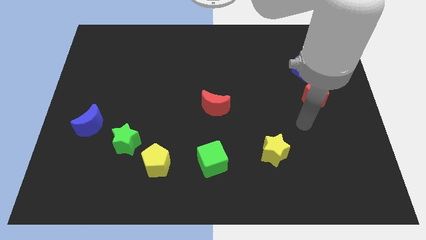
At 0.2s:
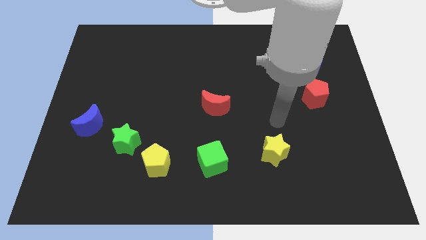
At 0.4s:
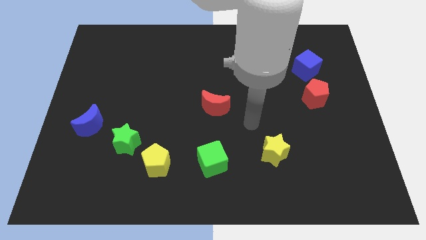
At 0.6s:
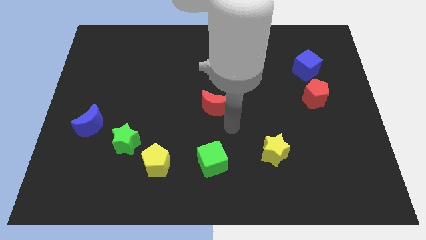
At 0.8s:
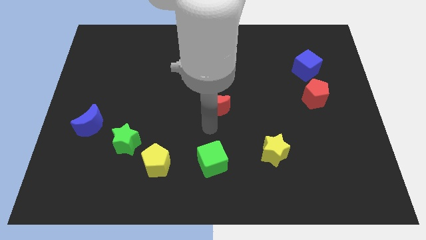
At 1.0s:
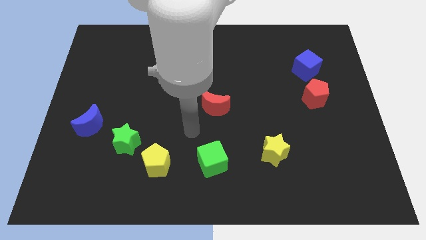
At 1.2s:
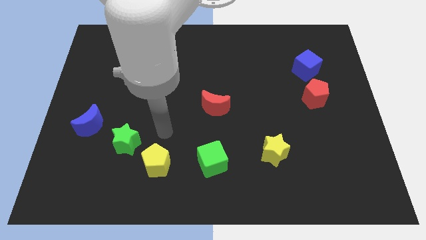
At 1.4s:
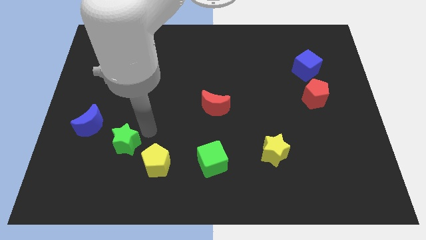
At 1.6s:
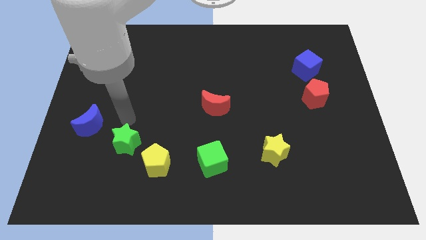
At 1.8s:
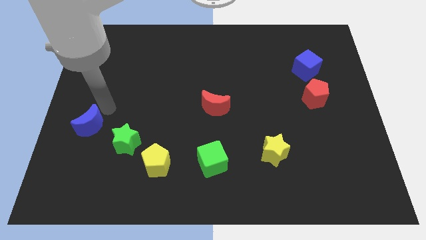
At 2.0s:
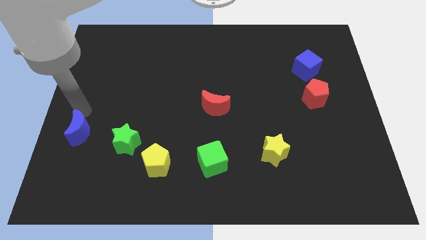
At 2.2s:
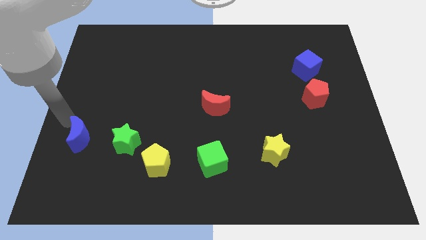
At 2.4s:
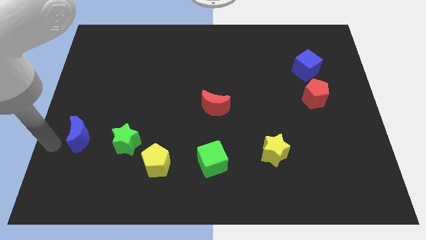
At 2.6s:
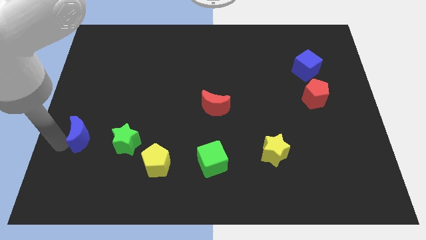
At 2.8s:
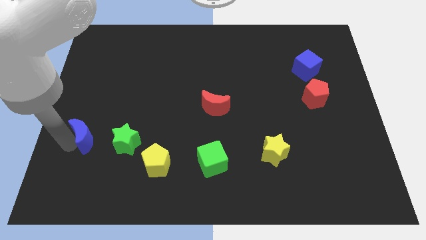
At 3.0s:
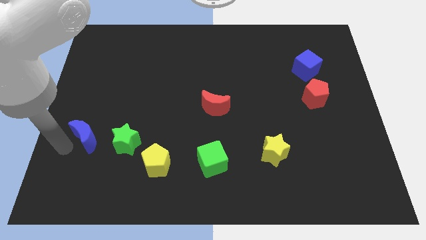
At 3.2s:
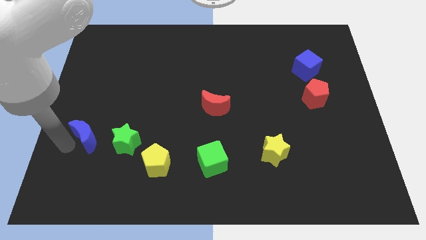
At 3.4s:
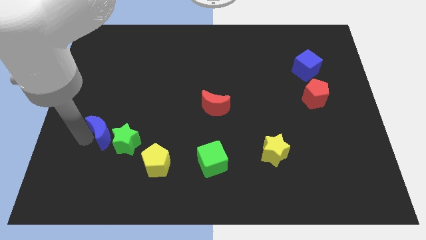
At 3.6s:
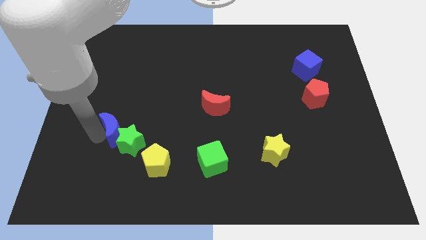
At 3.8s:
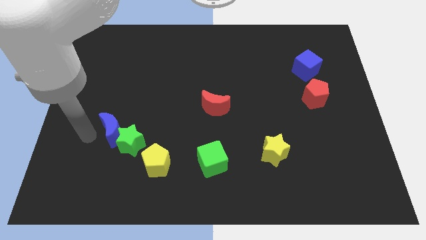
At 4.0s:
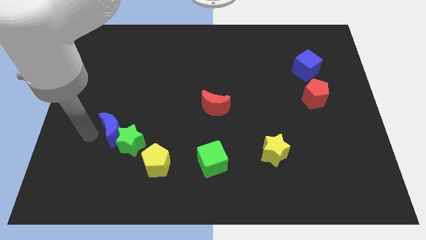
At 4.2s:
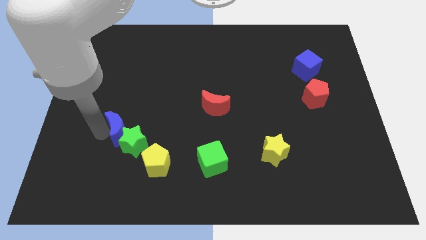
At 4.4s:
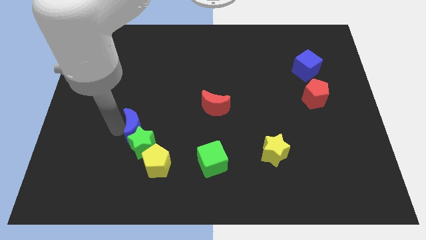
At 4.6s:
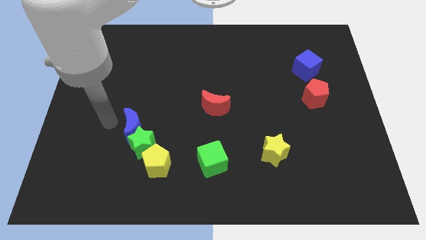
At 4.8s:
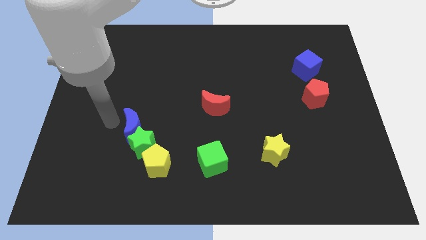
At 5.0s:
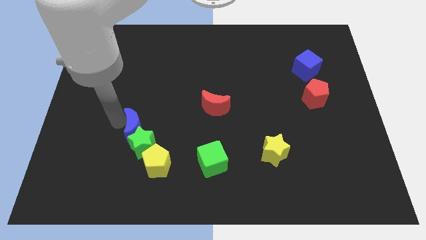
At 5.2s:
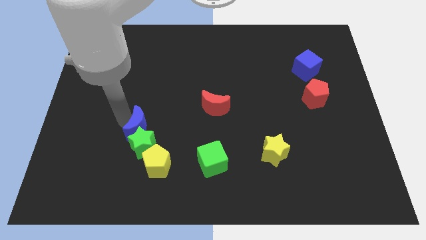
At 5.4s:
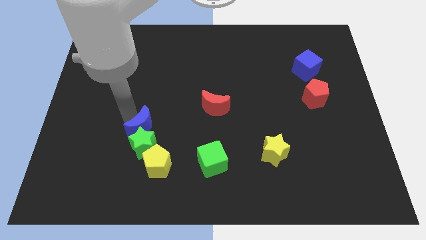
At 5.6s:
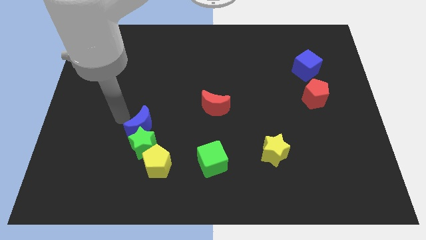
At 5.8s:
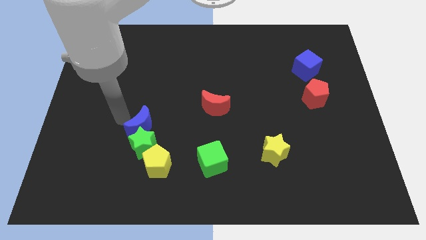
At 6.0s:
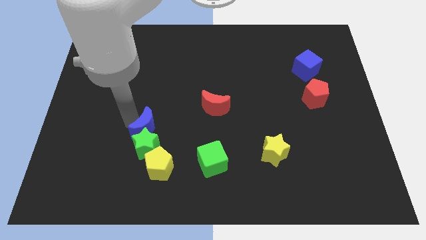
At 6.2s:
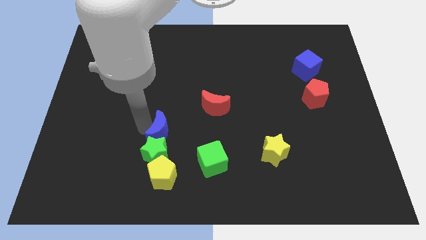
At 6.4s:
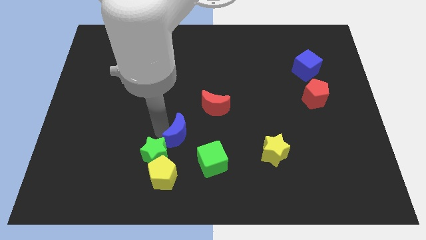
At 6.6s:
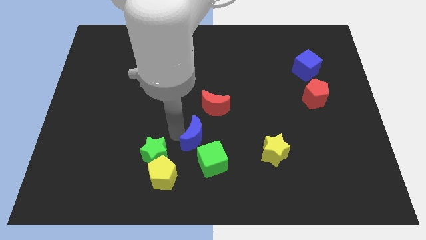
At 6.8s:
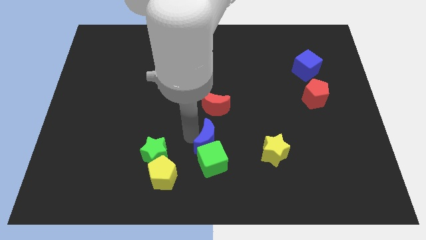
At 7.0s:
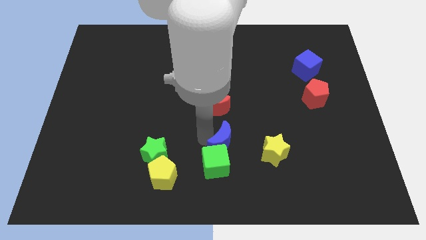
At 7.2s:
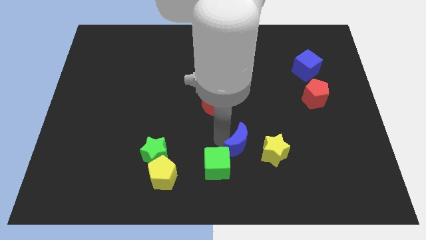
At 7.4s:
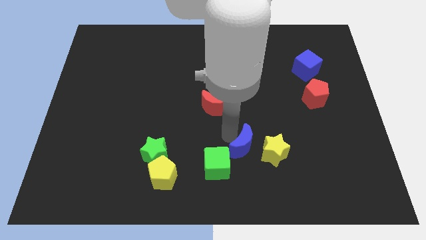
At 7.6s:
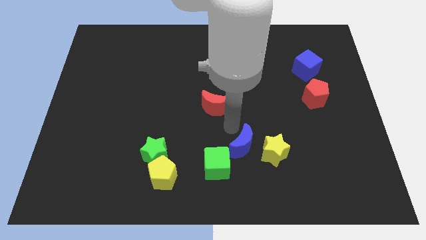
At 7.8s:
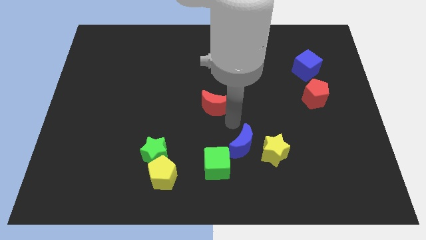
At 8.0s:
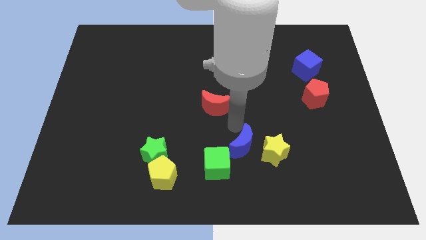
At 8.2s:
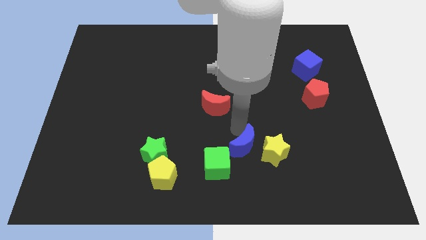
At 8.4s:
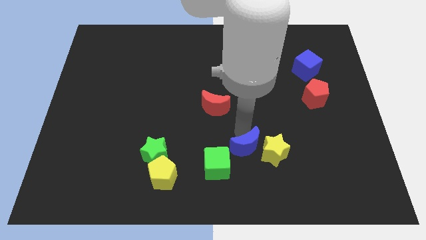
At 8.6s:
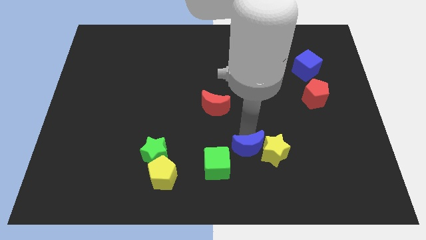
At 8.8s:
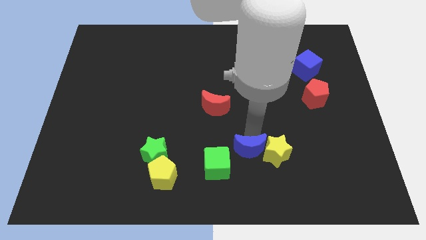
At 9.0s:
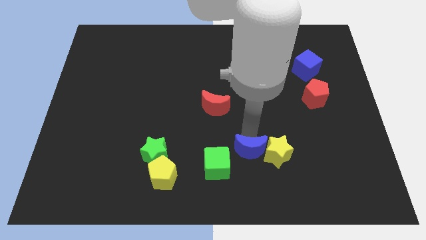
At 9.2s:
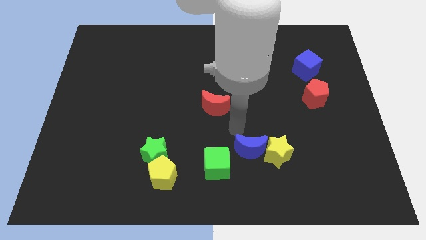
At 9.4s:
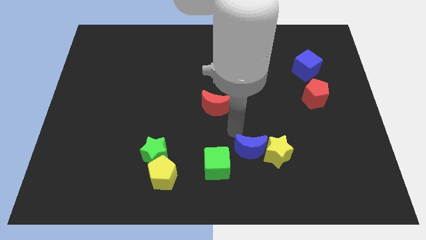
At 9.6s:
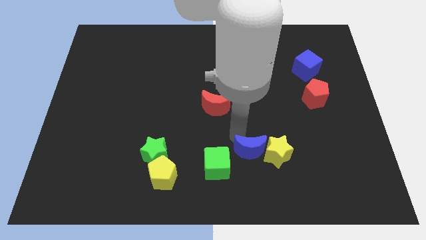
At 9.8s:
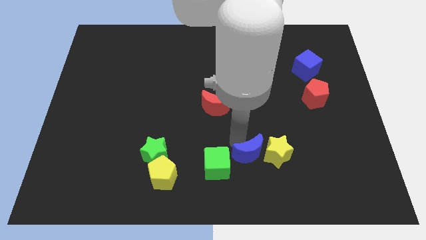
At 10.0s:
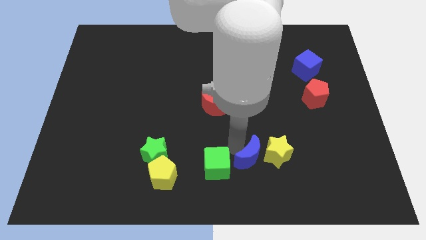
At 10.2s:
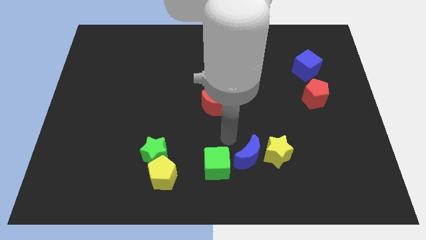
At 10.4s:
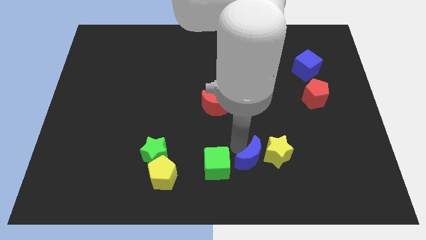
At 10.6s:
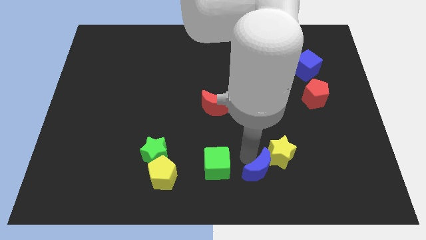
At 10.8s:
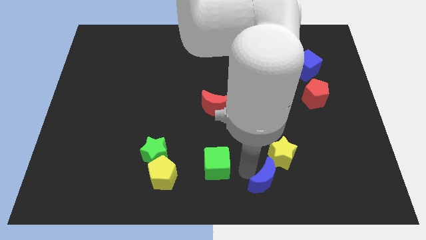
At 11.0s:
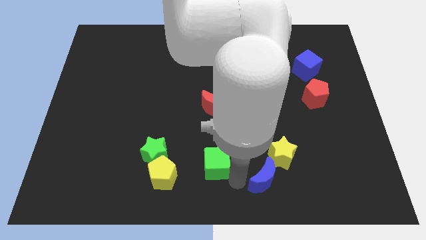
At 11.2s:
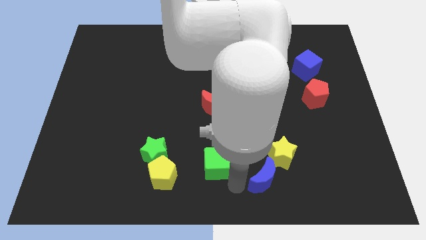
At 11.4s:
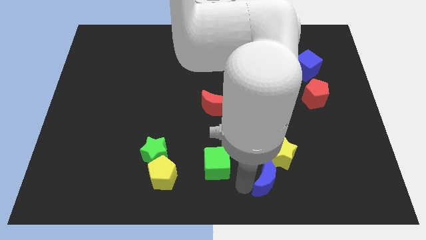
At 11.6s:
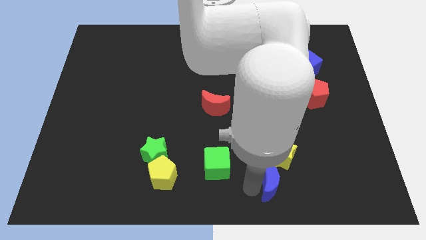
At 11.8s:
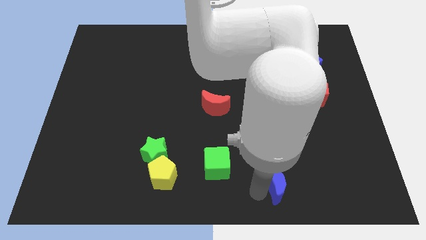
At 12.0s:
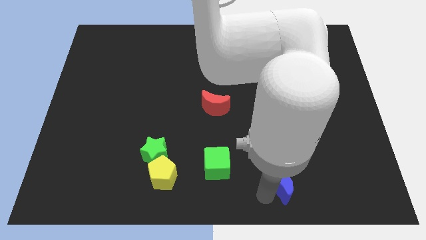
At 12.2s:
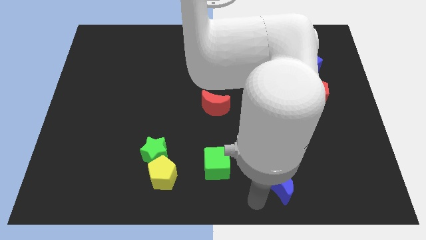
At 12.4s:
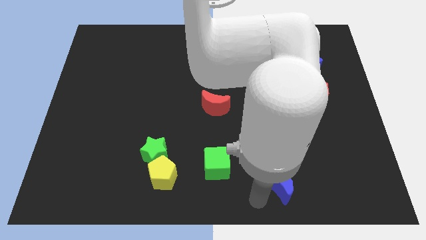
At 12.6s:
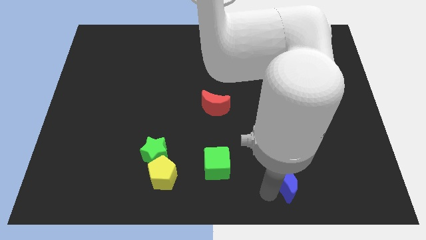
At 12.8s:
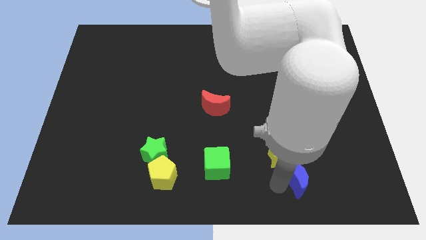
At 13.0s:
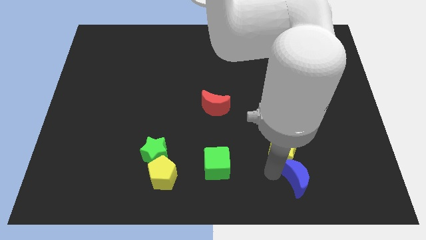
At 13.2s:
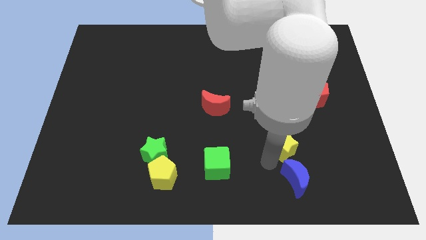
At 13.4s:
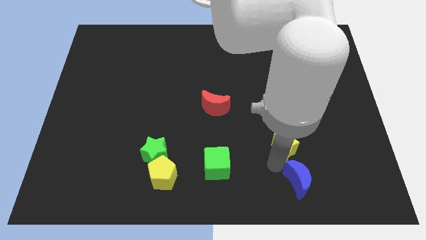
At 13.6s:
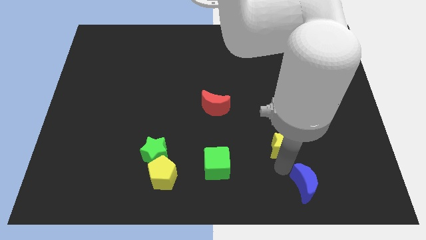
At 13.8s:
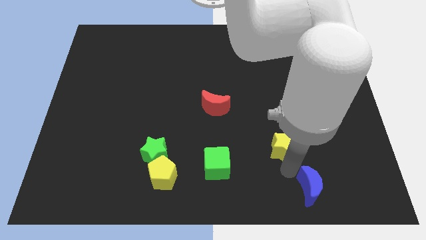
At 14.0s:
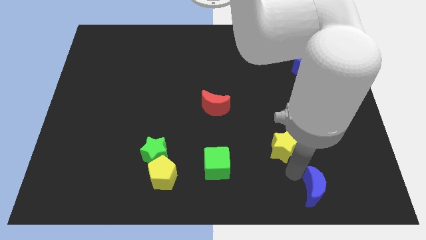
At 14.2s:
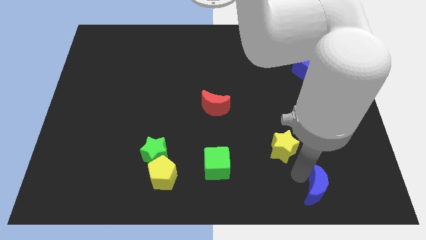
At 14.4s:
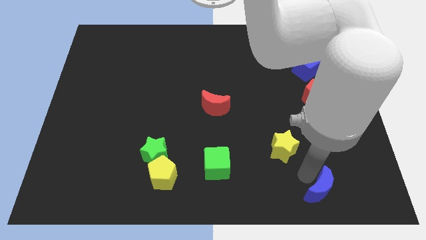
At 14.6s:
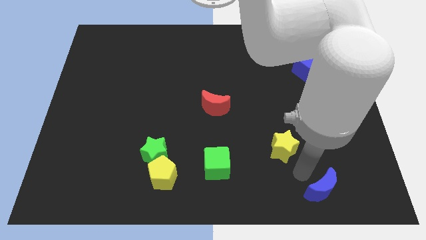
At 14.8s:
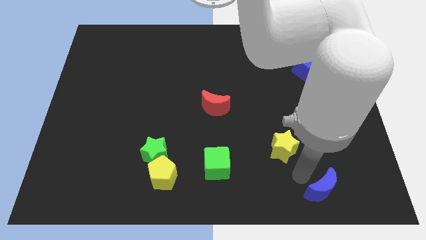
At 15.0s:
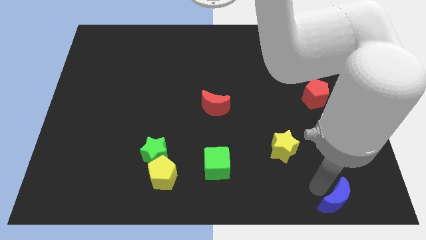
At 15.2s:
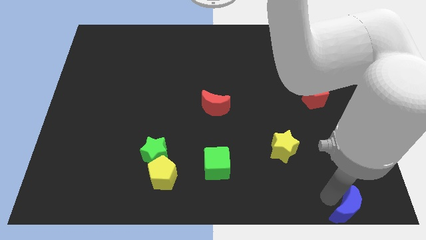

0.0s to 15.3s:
slide the blue moon to the lower right corner

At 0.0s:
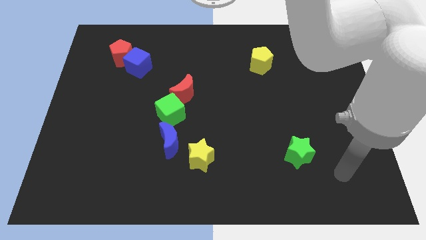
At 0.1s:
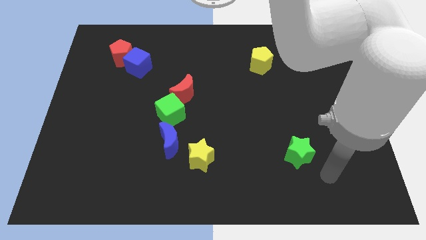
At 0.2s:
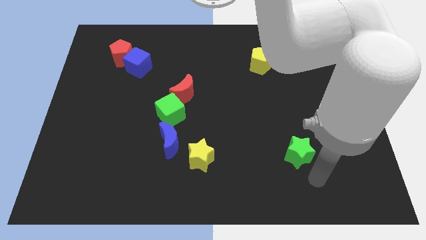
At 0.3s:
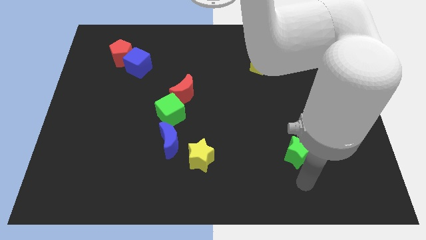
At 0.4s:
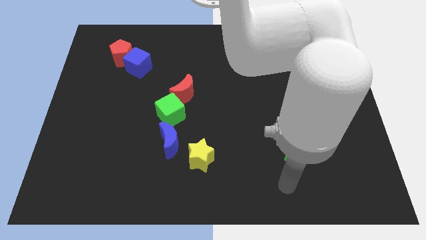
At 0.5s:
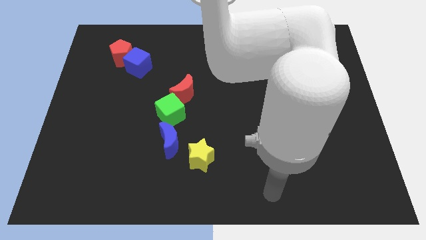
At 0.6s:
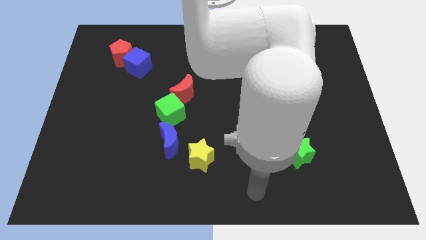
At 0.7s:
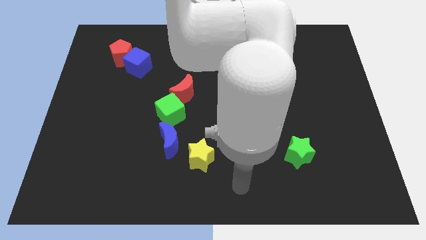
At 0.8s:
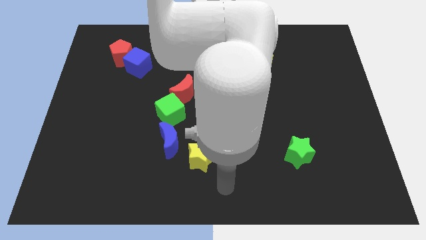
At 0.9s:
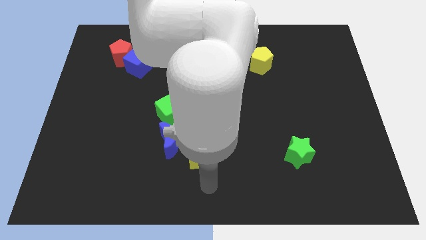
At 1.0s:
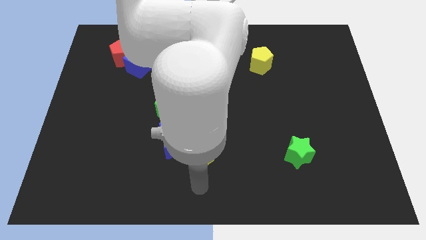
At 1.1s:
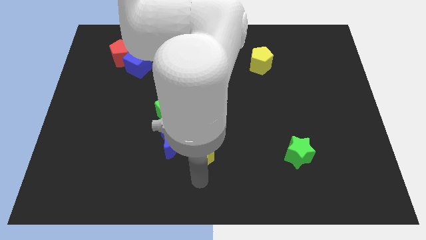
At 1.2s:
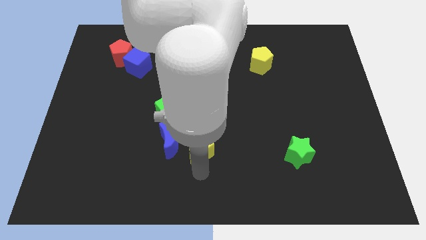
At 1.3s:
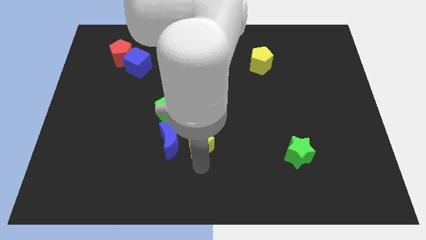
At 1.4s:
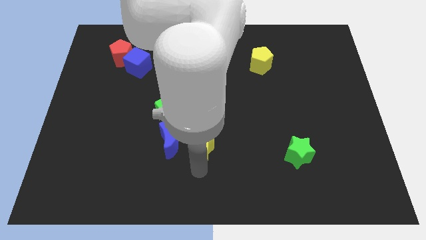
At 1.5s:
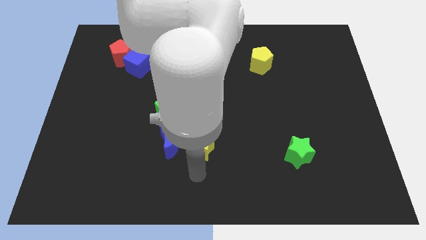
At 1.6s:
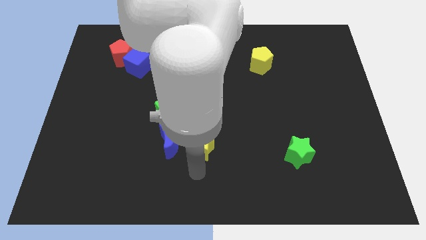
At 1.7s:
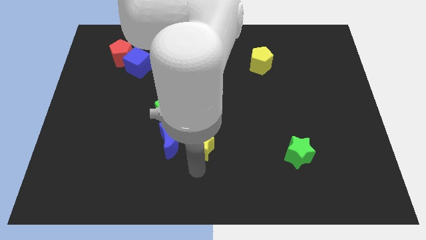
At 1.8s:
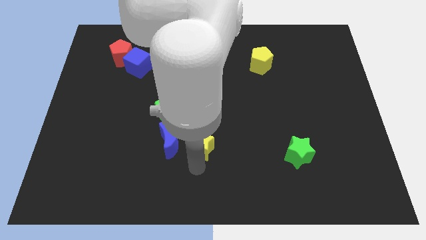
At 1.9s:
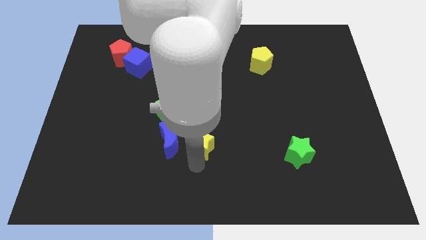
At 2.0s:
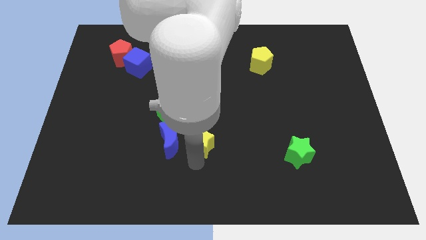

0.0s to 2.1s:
push the yellow star to the center
